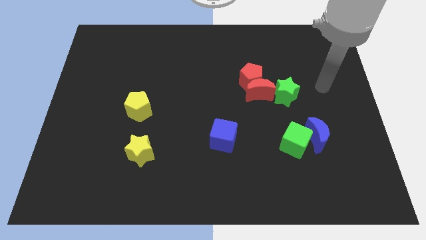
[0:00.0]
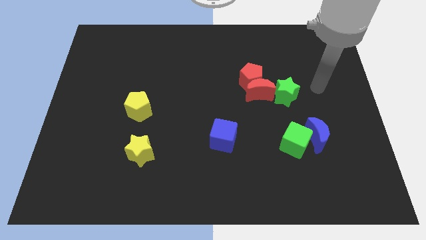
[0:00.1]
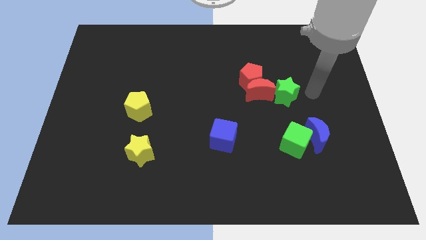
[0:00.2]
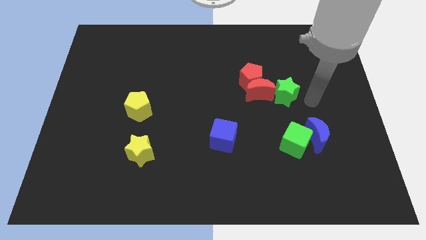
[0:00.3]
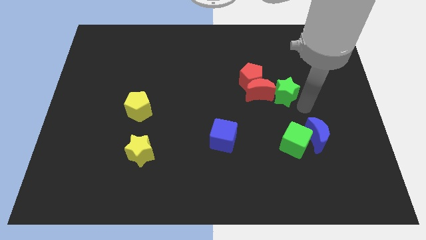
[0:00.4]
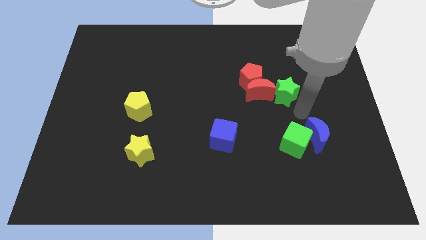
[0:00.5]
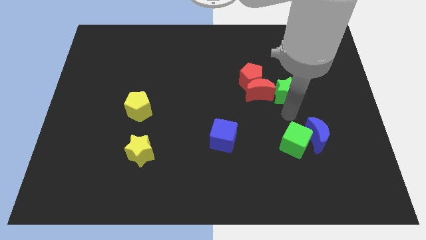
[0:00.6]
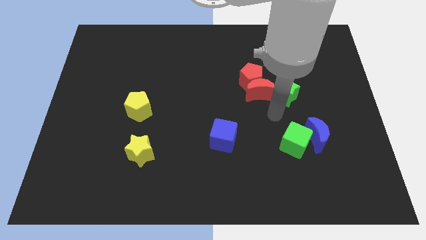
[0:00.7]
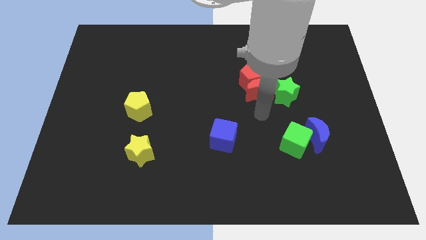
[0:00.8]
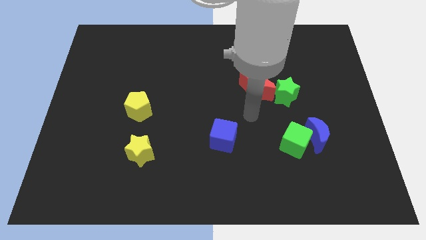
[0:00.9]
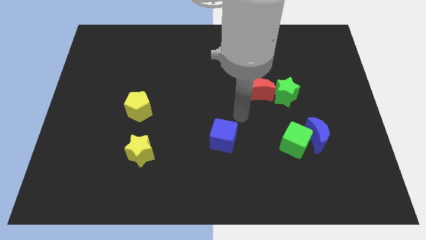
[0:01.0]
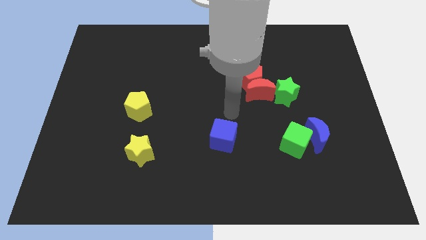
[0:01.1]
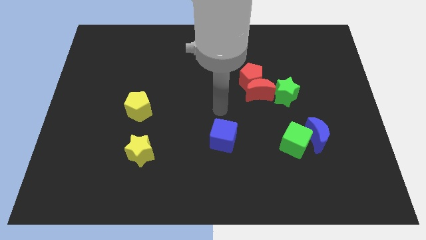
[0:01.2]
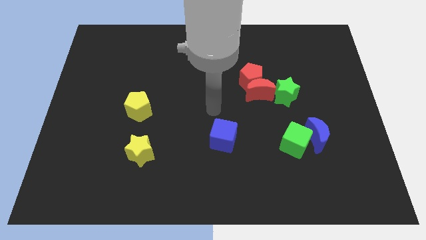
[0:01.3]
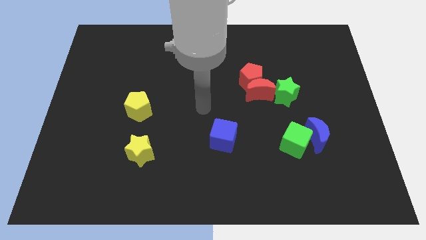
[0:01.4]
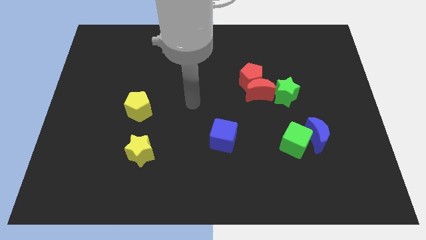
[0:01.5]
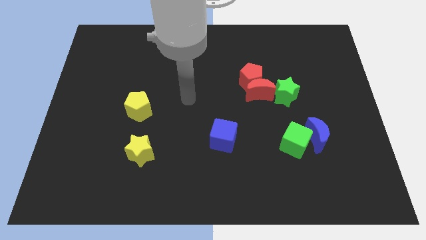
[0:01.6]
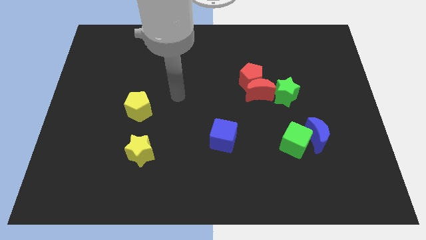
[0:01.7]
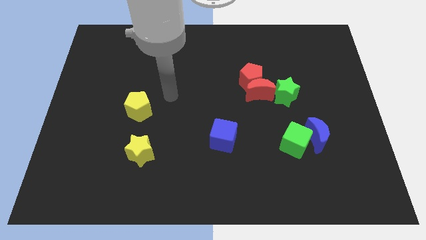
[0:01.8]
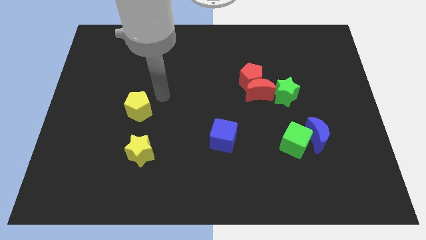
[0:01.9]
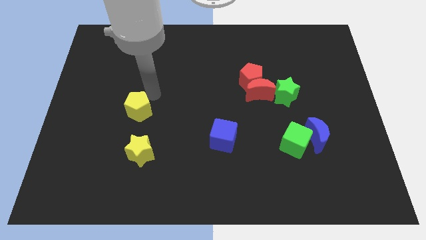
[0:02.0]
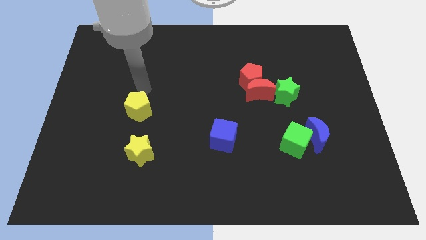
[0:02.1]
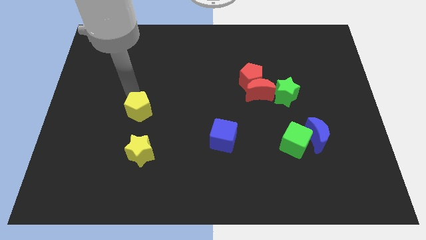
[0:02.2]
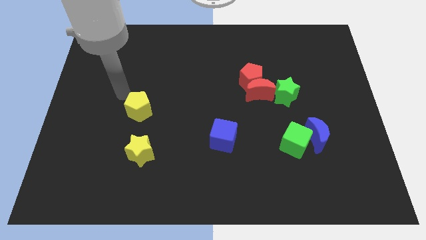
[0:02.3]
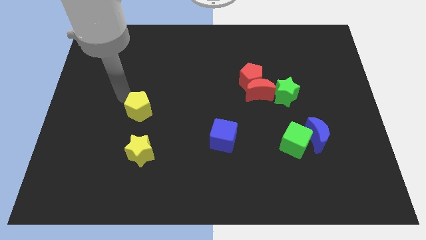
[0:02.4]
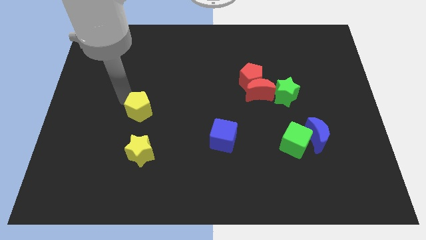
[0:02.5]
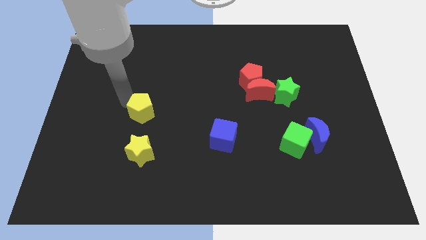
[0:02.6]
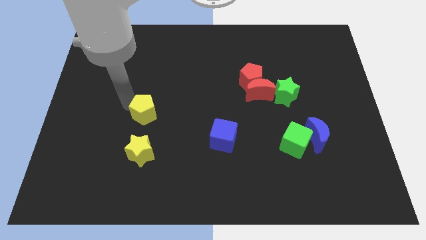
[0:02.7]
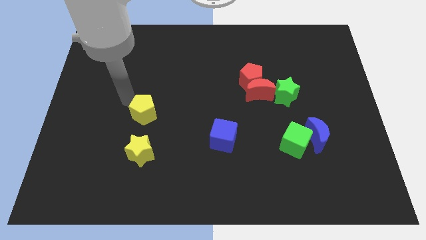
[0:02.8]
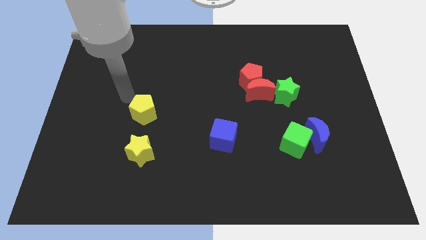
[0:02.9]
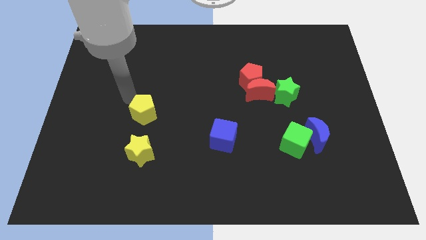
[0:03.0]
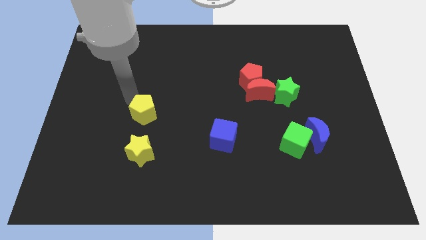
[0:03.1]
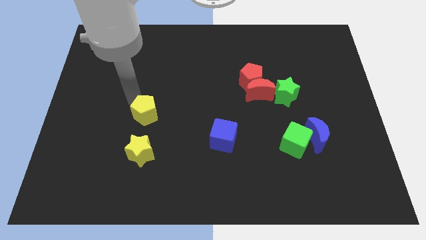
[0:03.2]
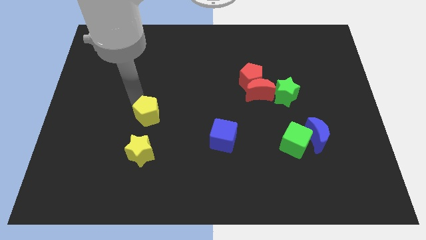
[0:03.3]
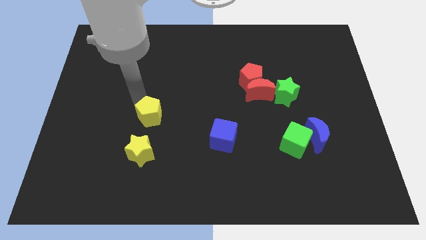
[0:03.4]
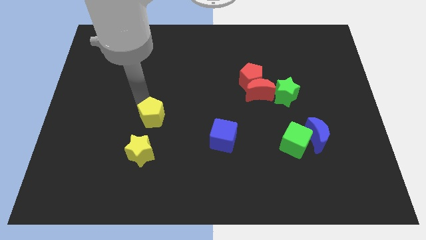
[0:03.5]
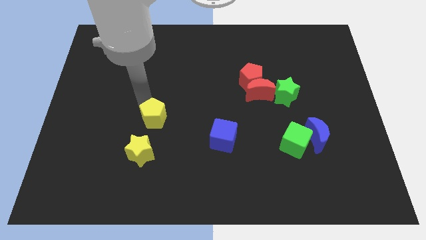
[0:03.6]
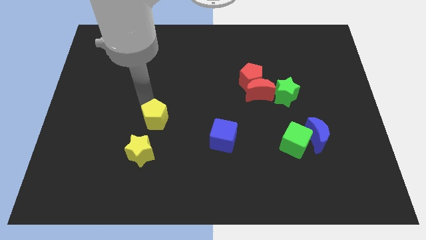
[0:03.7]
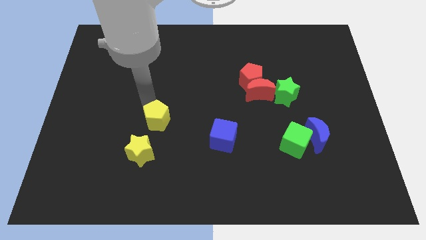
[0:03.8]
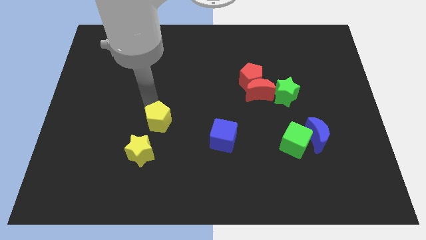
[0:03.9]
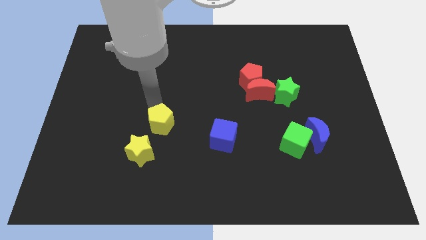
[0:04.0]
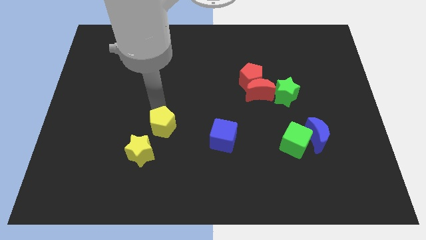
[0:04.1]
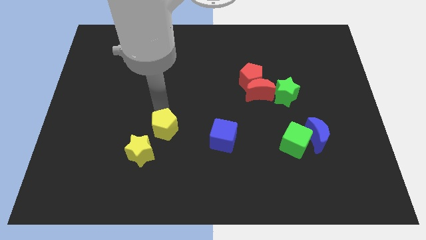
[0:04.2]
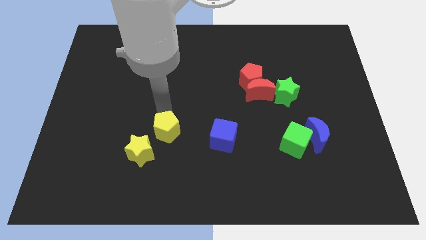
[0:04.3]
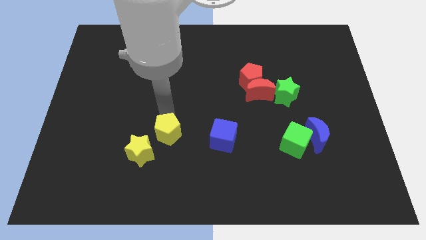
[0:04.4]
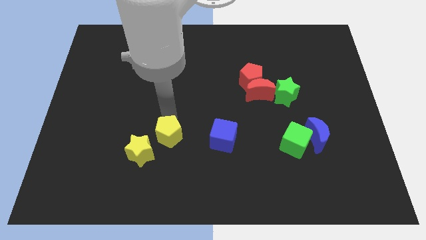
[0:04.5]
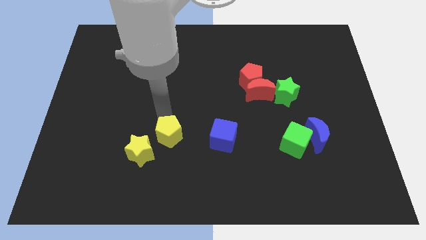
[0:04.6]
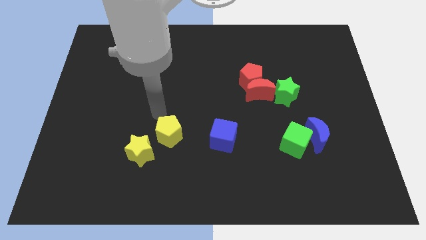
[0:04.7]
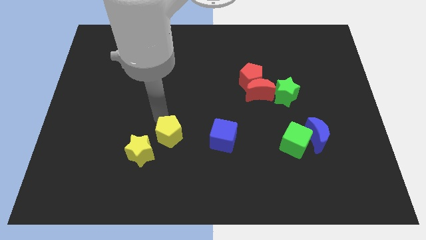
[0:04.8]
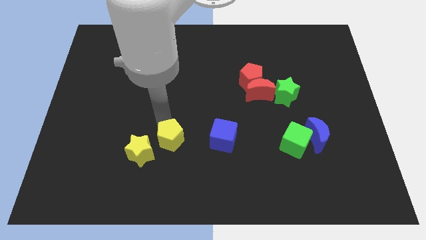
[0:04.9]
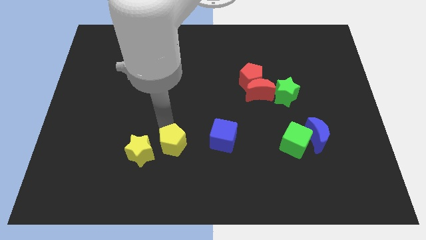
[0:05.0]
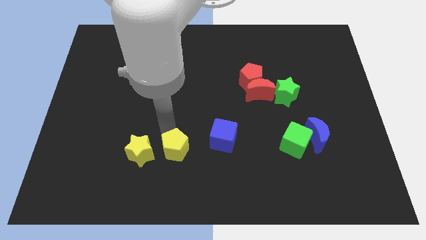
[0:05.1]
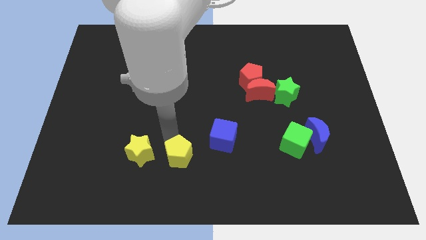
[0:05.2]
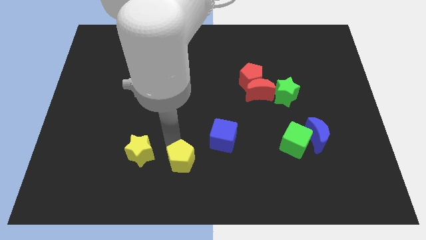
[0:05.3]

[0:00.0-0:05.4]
push the yellow pentagon to the bottom

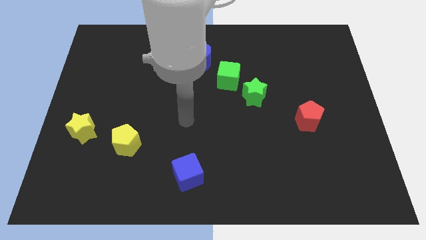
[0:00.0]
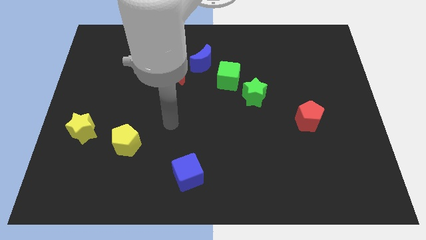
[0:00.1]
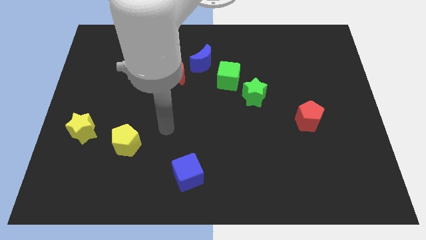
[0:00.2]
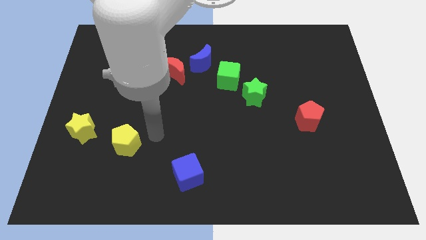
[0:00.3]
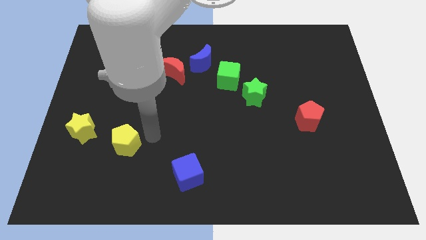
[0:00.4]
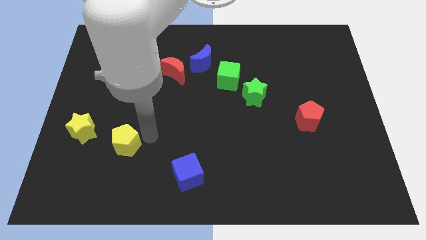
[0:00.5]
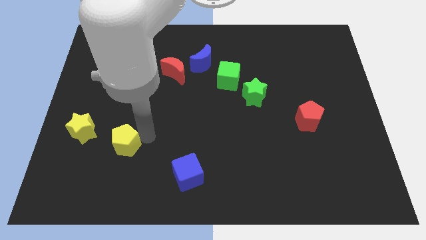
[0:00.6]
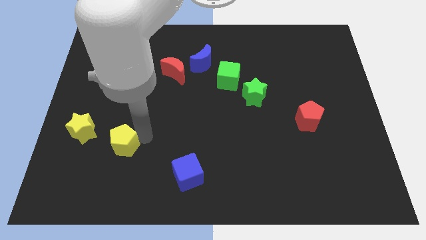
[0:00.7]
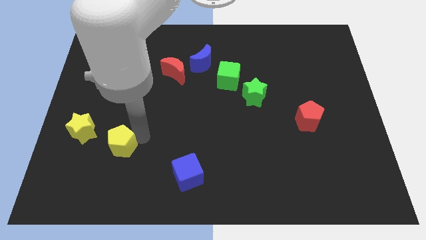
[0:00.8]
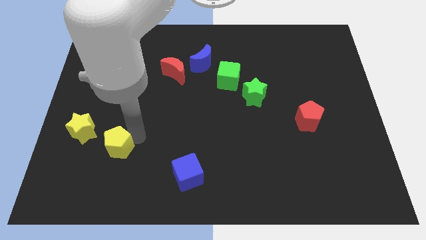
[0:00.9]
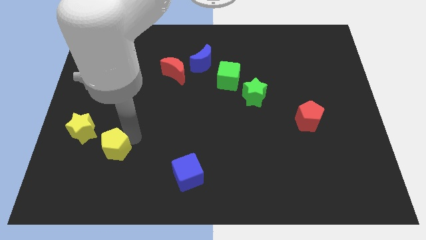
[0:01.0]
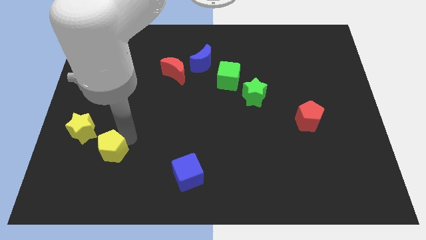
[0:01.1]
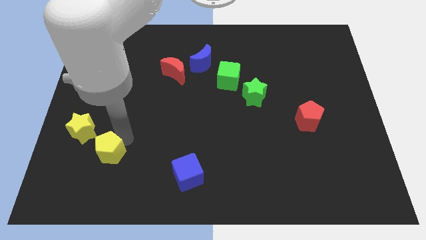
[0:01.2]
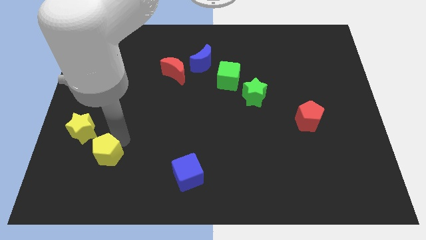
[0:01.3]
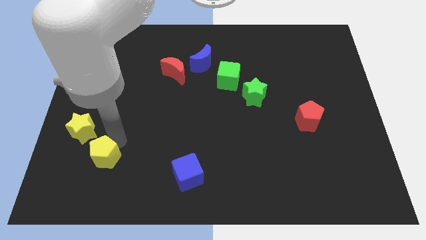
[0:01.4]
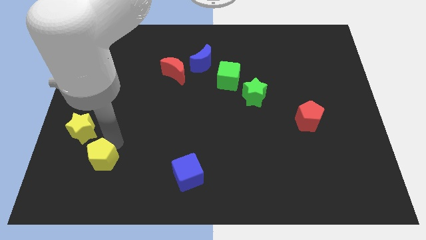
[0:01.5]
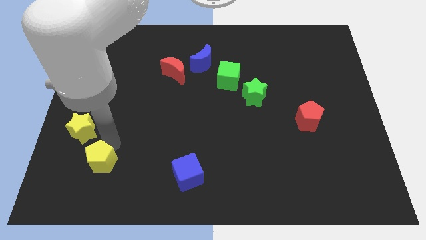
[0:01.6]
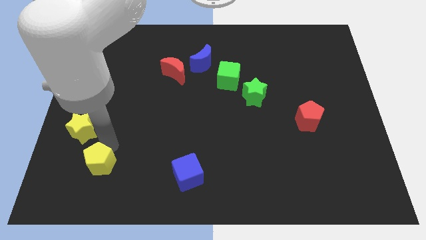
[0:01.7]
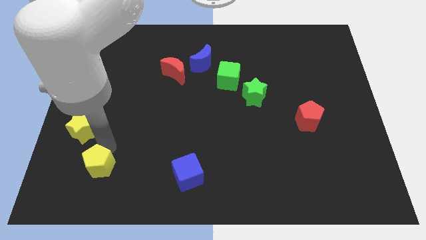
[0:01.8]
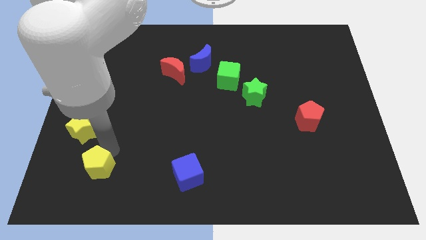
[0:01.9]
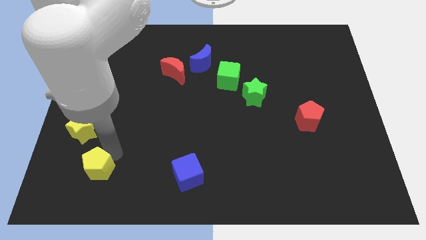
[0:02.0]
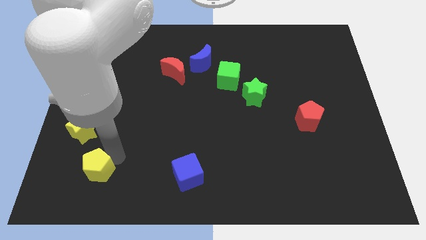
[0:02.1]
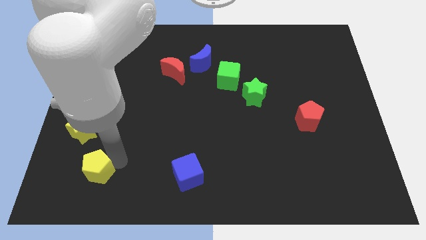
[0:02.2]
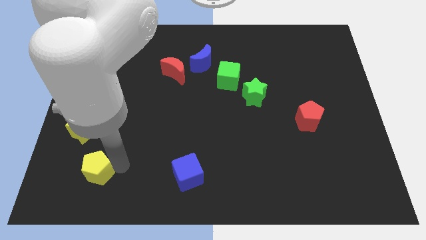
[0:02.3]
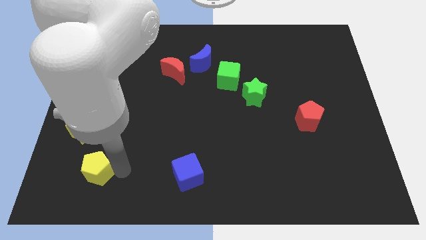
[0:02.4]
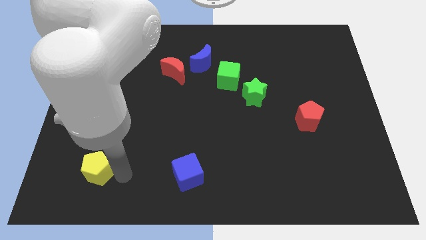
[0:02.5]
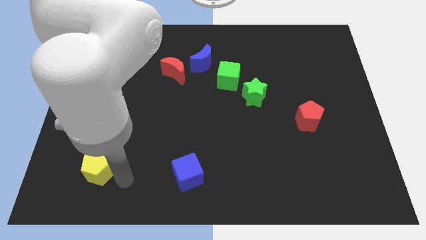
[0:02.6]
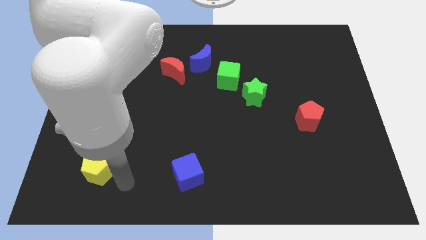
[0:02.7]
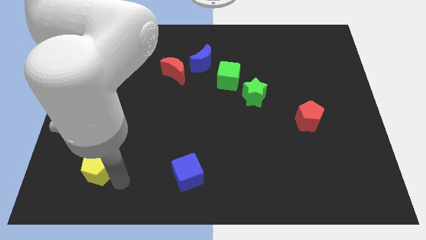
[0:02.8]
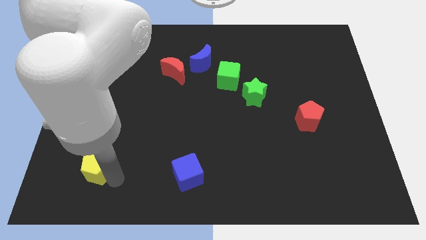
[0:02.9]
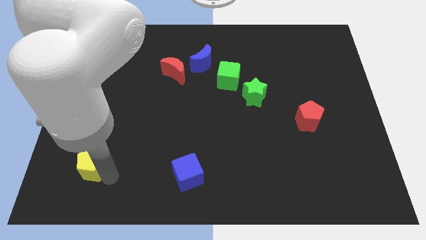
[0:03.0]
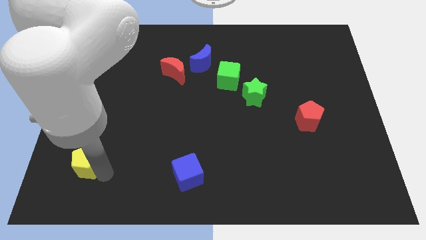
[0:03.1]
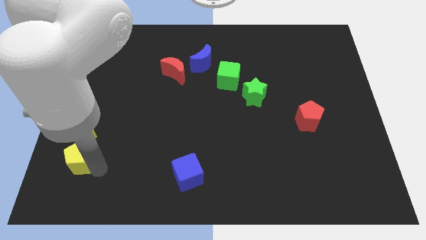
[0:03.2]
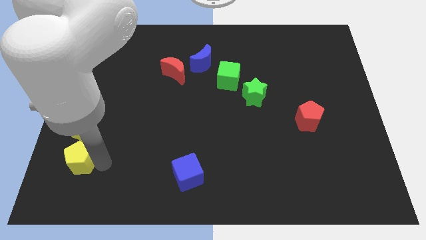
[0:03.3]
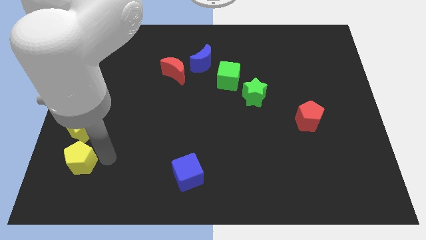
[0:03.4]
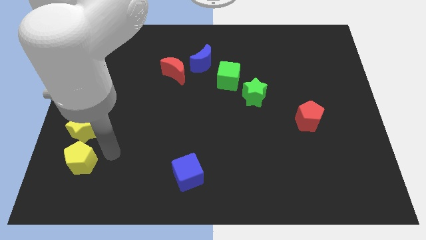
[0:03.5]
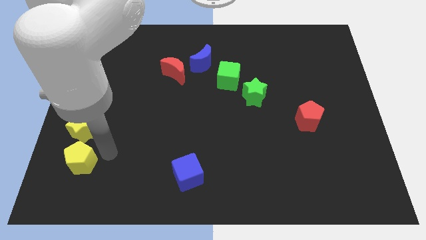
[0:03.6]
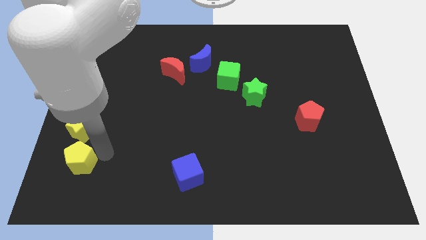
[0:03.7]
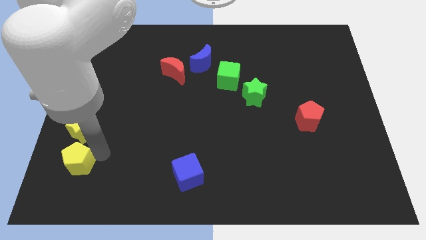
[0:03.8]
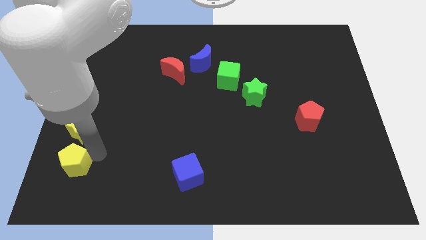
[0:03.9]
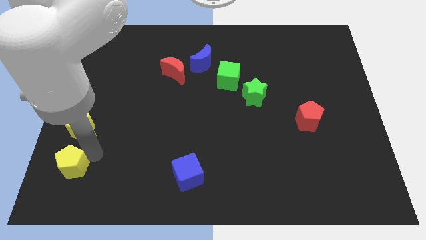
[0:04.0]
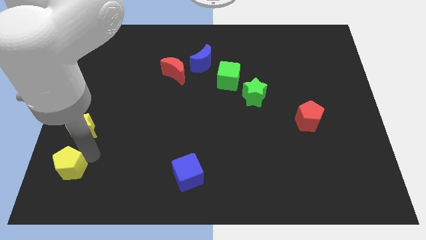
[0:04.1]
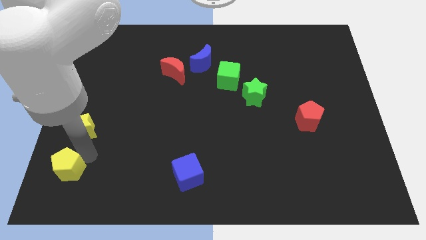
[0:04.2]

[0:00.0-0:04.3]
move the yellow pentagon to the bottom left corner
